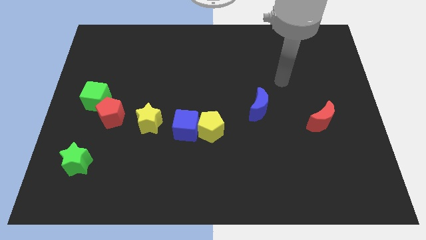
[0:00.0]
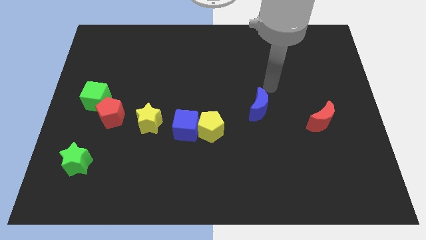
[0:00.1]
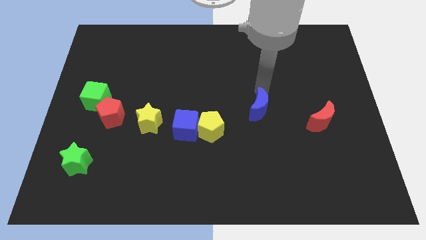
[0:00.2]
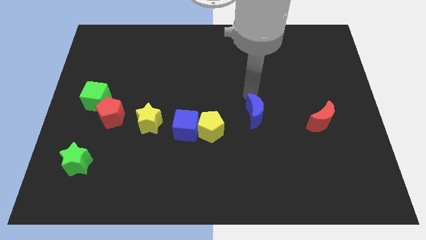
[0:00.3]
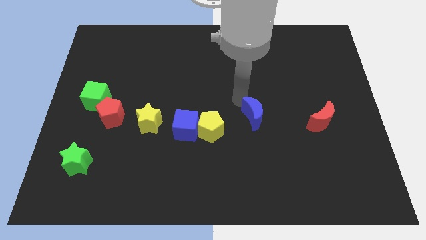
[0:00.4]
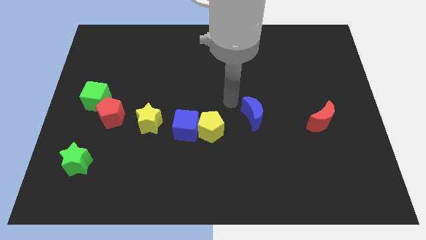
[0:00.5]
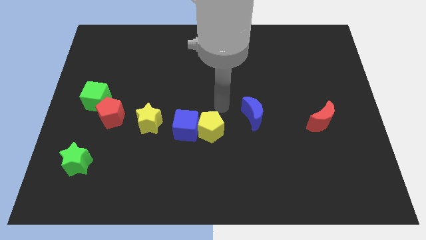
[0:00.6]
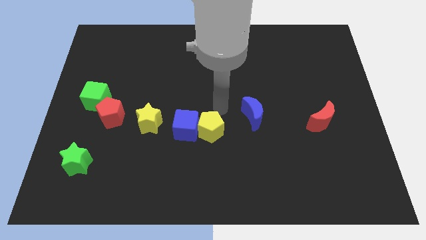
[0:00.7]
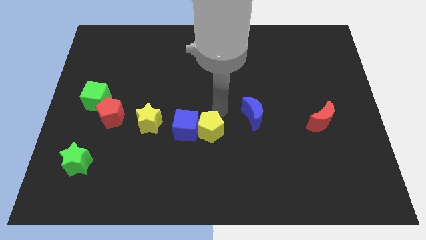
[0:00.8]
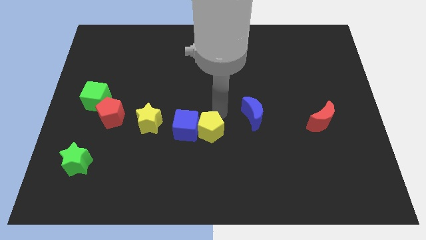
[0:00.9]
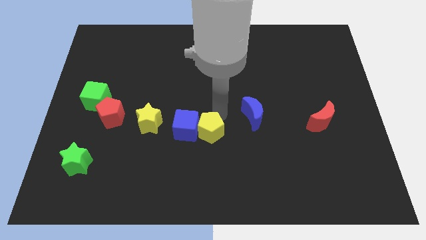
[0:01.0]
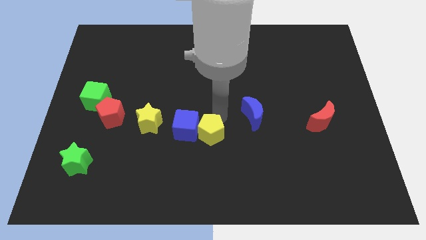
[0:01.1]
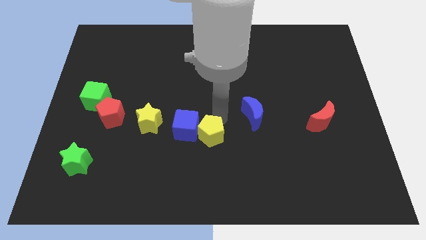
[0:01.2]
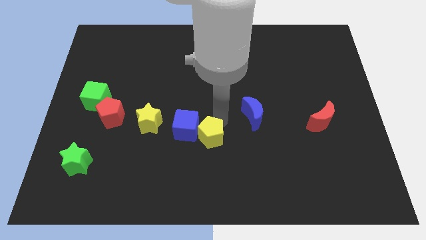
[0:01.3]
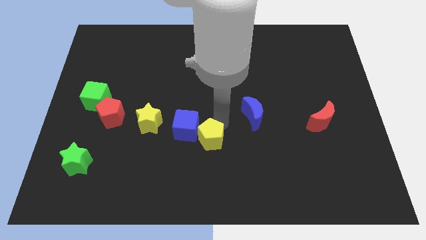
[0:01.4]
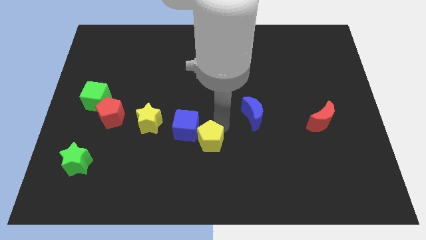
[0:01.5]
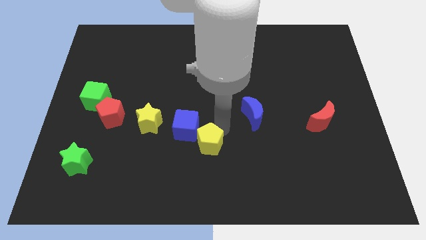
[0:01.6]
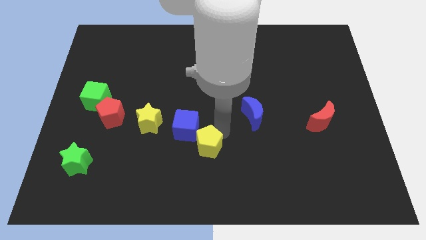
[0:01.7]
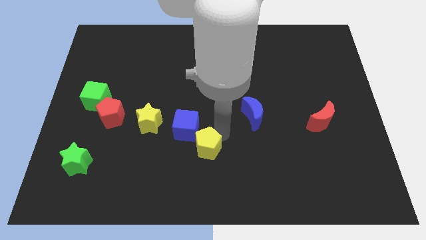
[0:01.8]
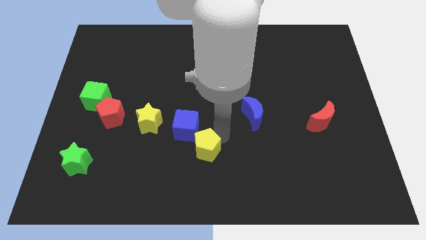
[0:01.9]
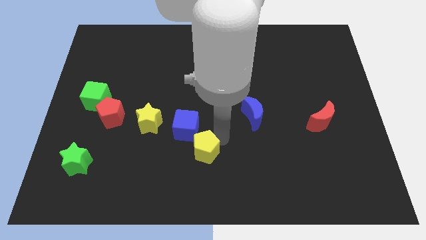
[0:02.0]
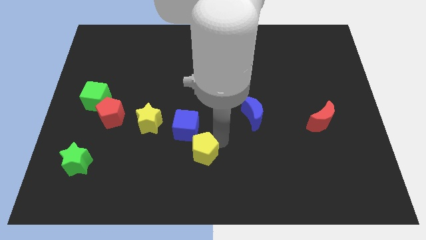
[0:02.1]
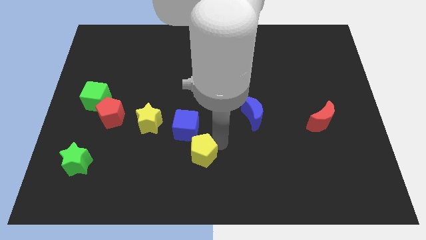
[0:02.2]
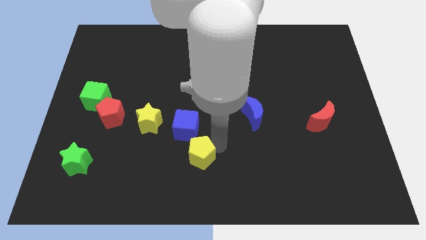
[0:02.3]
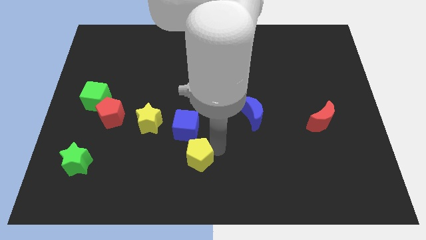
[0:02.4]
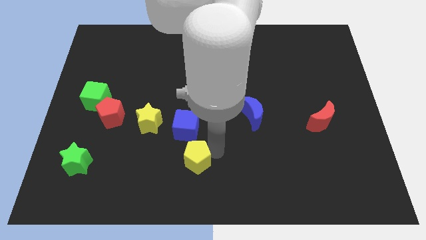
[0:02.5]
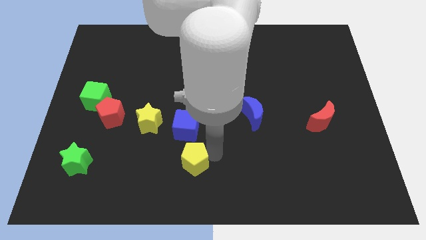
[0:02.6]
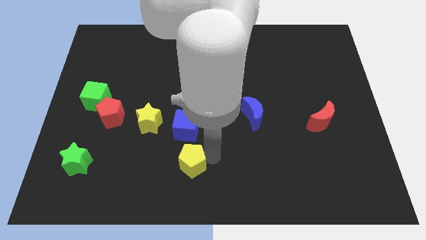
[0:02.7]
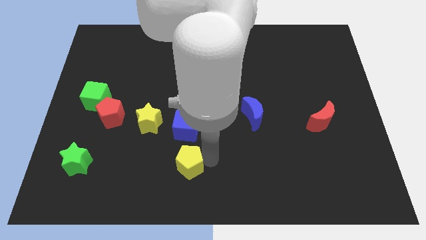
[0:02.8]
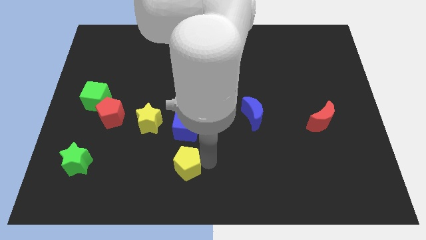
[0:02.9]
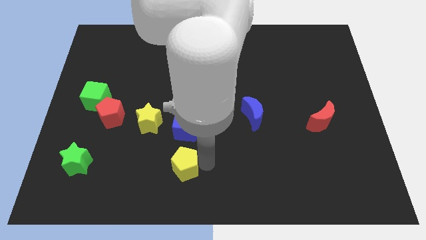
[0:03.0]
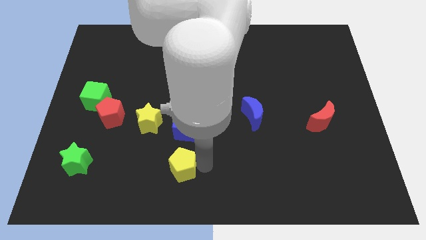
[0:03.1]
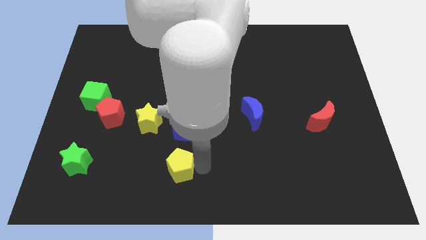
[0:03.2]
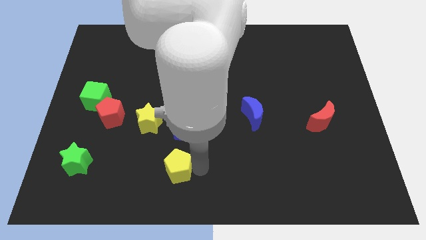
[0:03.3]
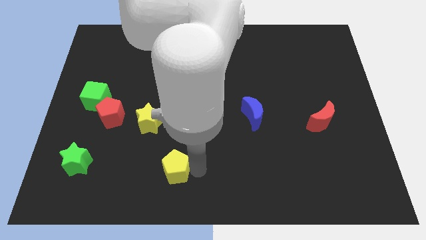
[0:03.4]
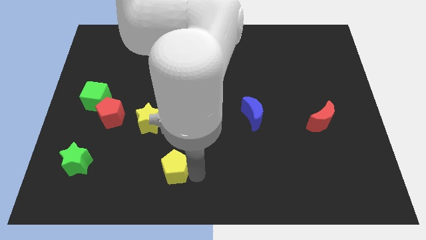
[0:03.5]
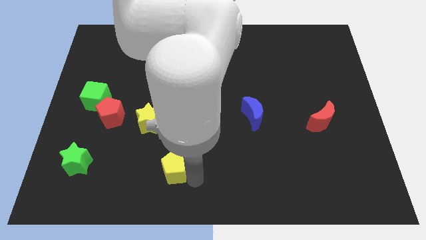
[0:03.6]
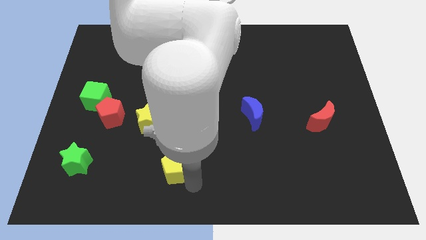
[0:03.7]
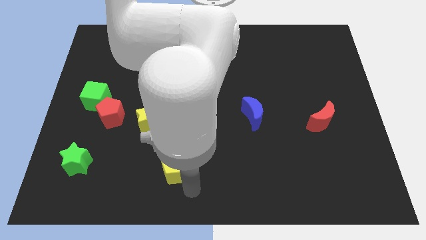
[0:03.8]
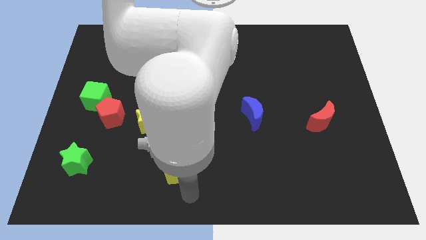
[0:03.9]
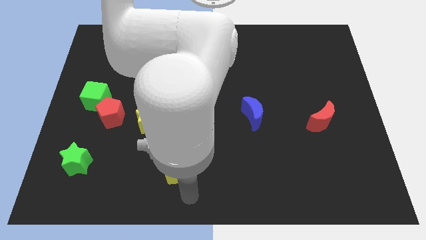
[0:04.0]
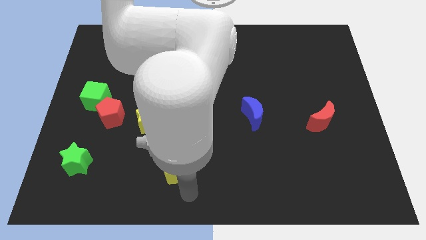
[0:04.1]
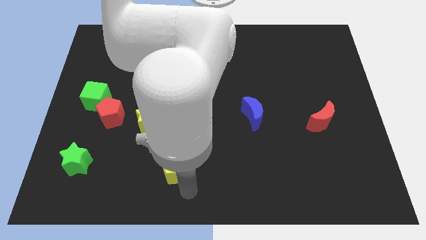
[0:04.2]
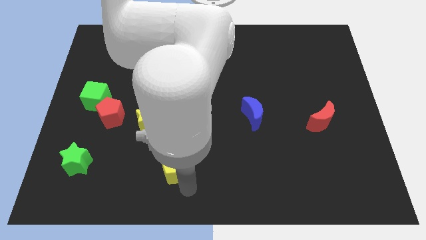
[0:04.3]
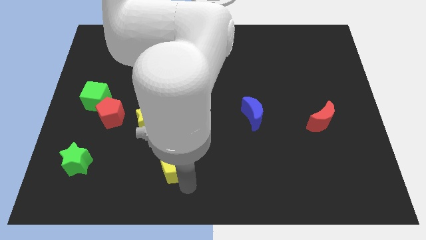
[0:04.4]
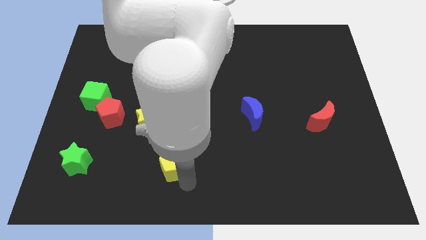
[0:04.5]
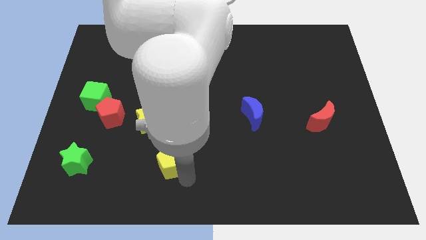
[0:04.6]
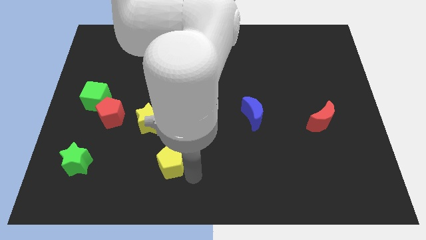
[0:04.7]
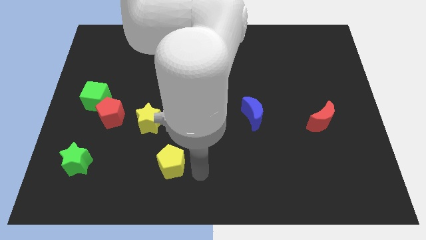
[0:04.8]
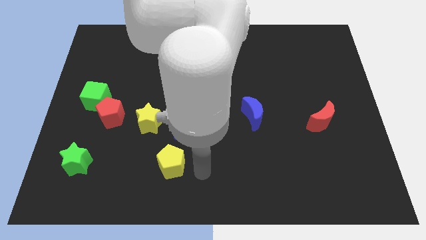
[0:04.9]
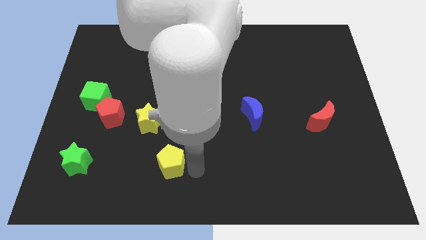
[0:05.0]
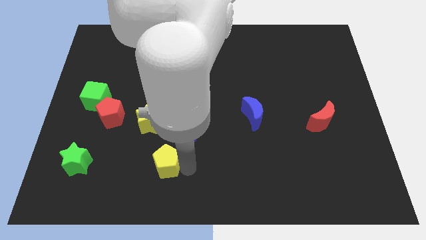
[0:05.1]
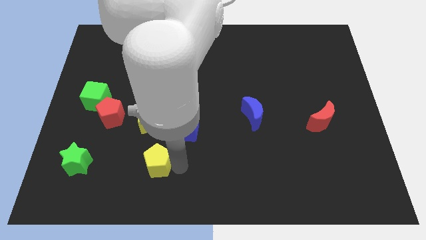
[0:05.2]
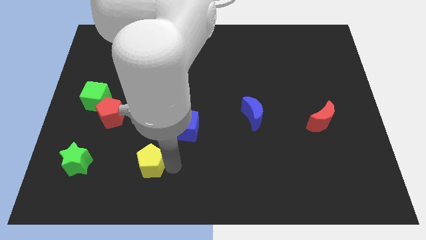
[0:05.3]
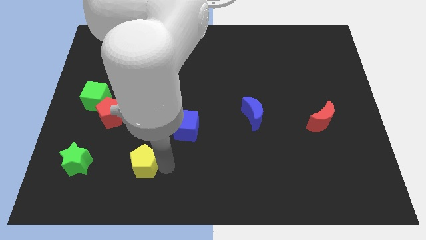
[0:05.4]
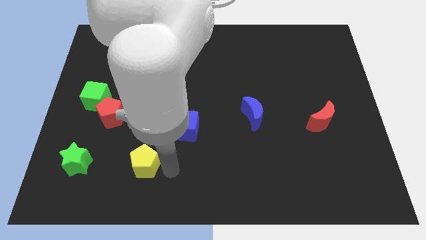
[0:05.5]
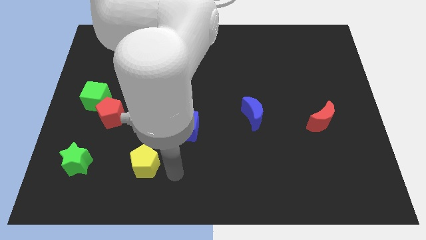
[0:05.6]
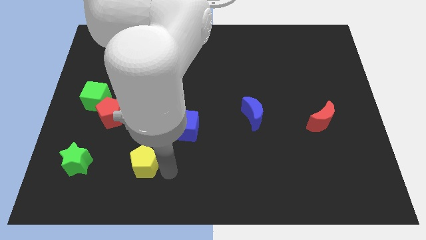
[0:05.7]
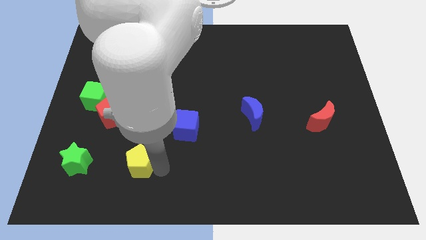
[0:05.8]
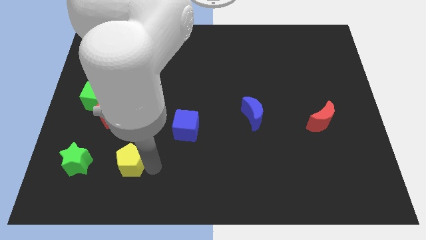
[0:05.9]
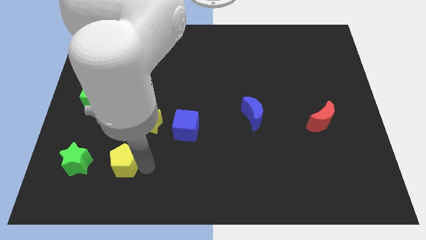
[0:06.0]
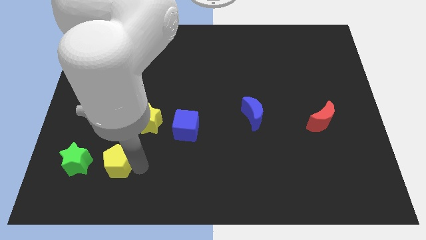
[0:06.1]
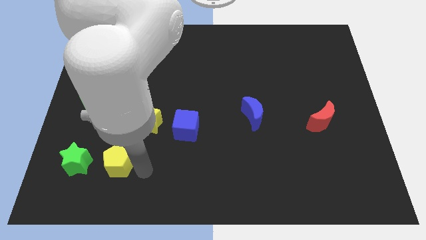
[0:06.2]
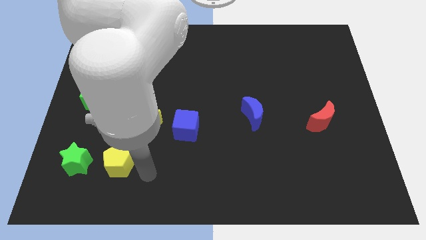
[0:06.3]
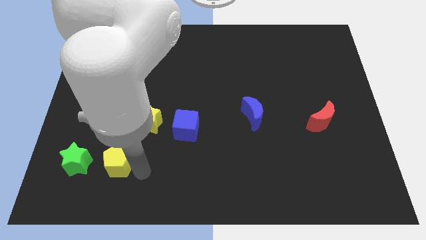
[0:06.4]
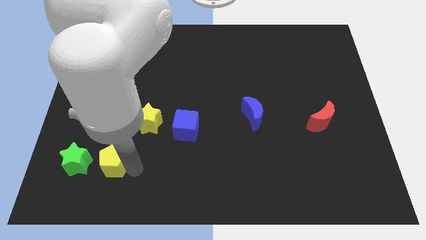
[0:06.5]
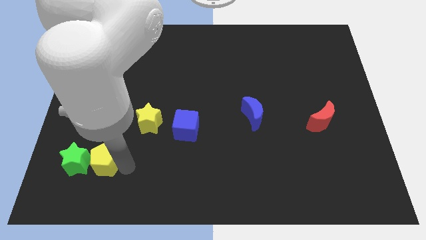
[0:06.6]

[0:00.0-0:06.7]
slide the yellow pentagon close to the green star
